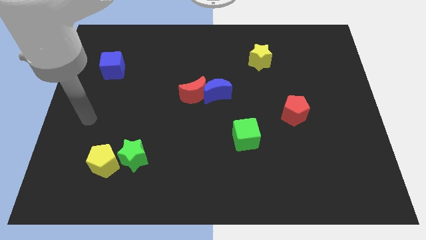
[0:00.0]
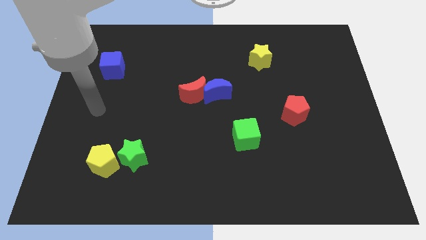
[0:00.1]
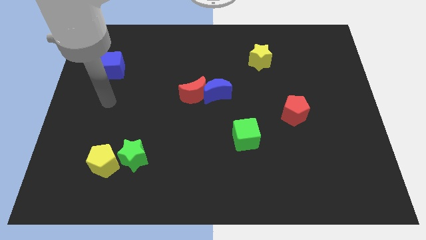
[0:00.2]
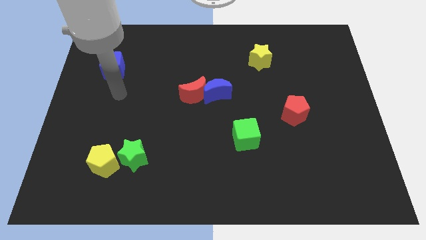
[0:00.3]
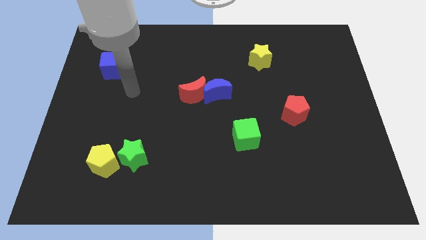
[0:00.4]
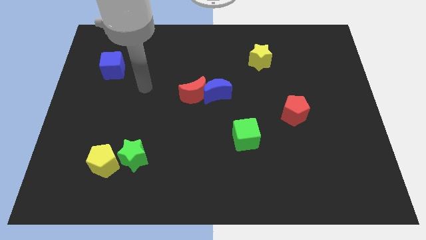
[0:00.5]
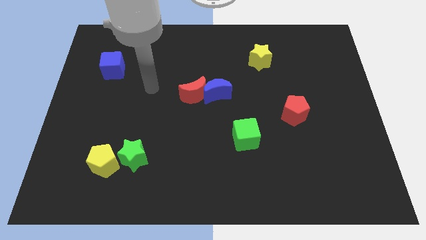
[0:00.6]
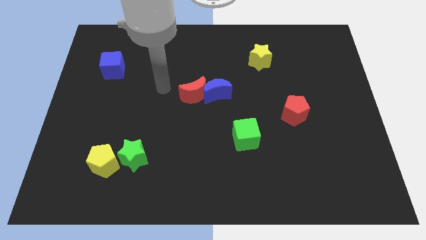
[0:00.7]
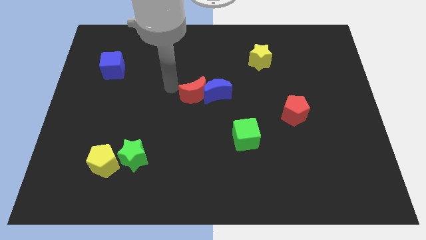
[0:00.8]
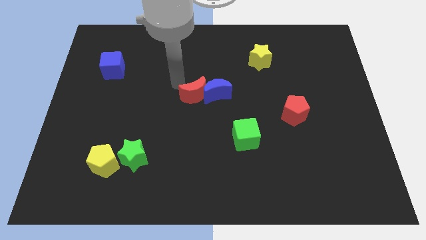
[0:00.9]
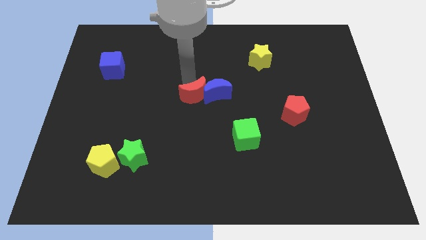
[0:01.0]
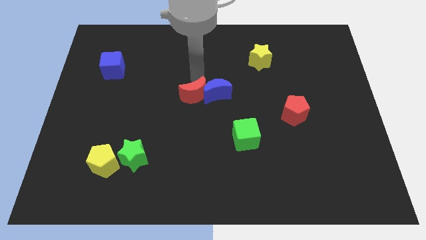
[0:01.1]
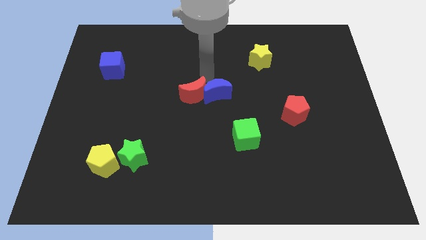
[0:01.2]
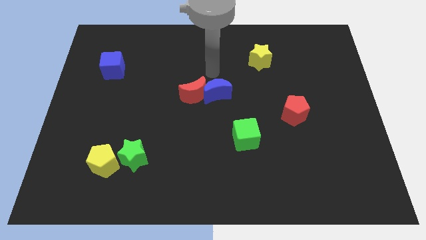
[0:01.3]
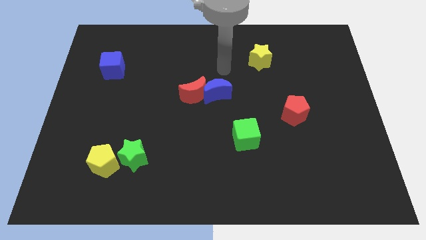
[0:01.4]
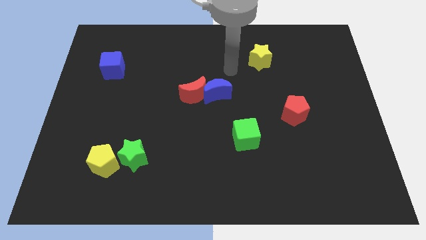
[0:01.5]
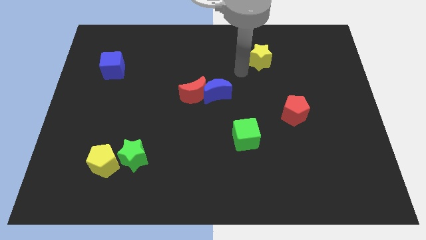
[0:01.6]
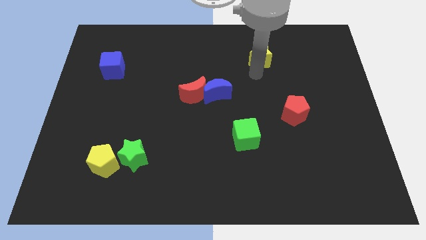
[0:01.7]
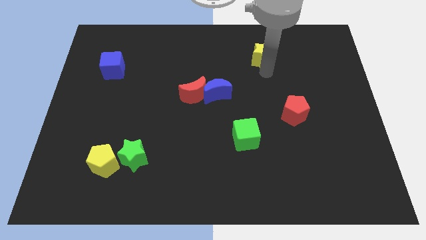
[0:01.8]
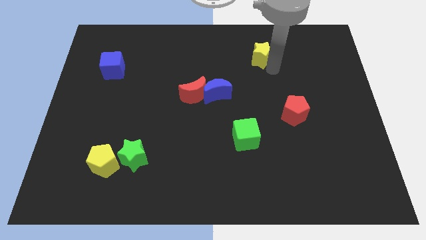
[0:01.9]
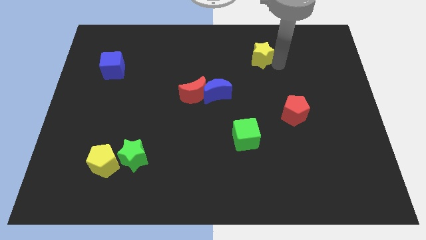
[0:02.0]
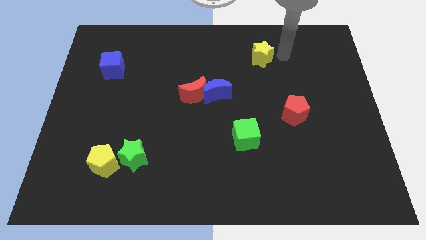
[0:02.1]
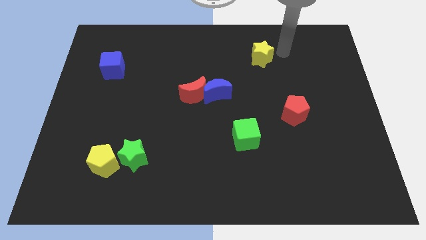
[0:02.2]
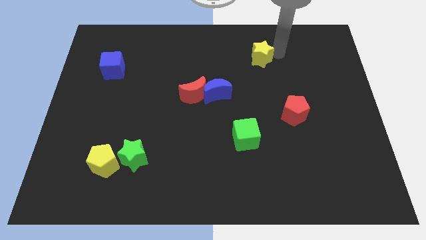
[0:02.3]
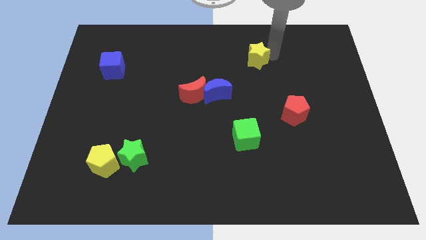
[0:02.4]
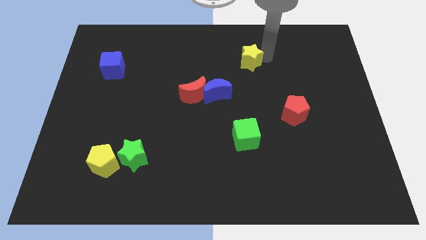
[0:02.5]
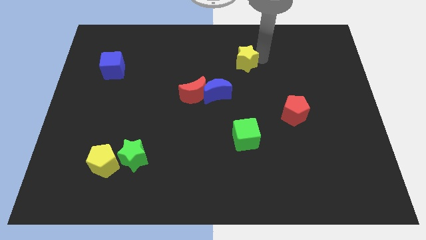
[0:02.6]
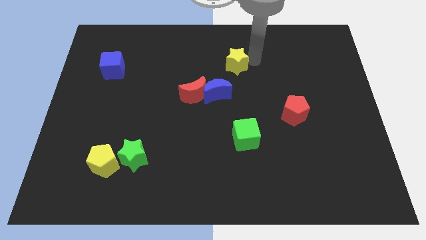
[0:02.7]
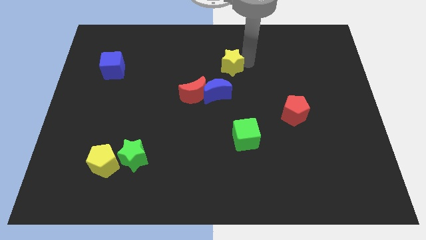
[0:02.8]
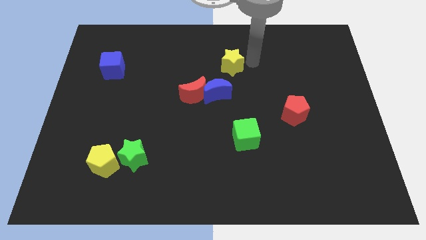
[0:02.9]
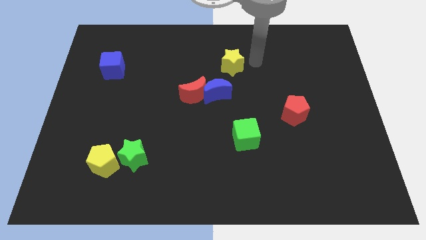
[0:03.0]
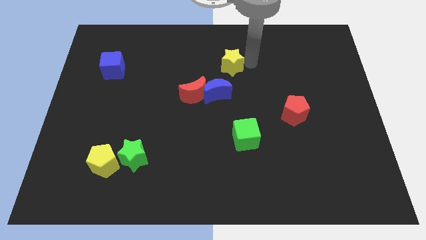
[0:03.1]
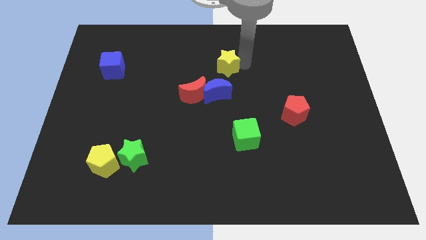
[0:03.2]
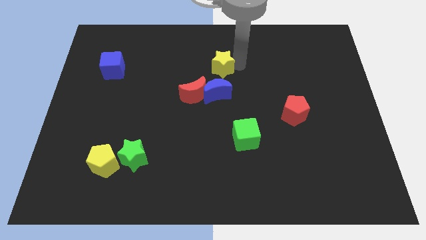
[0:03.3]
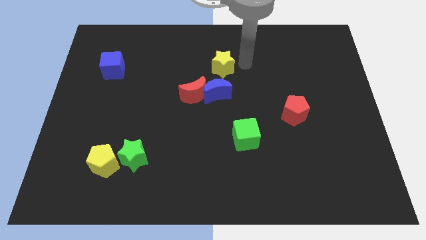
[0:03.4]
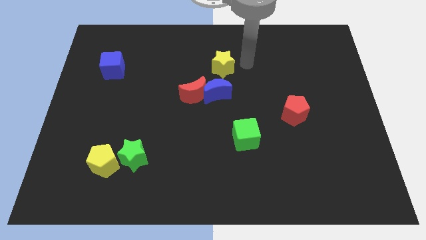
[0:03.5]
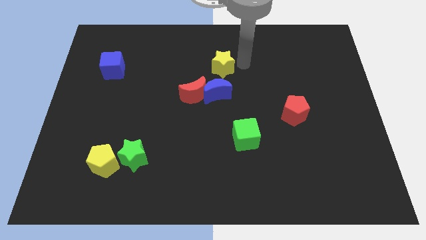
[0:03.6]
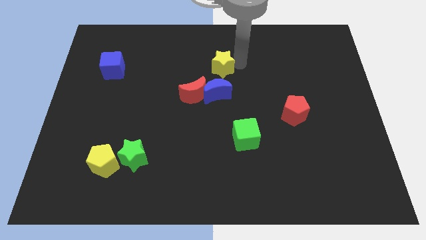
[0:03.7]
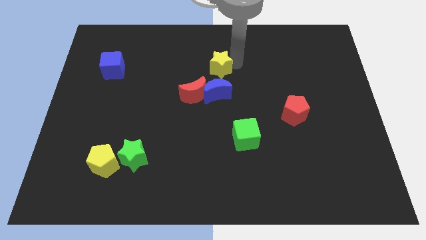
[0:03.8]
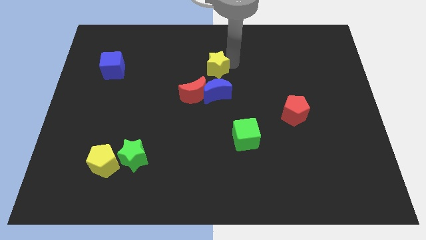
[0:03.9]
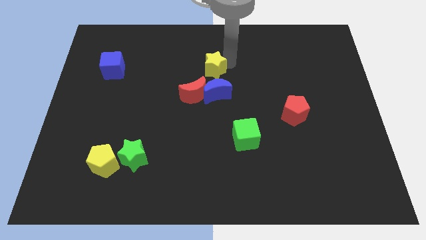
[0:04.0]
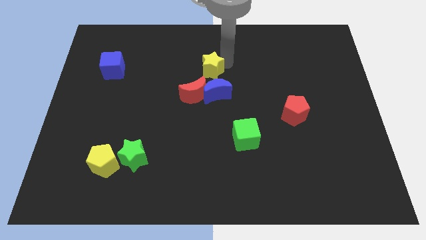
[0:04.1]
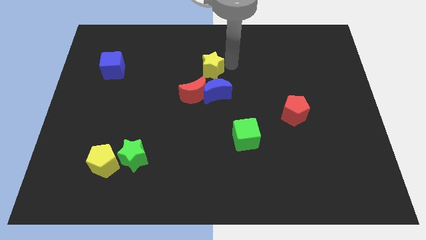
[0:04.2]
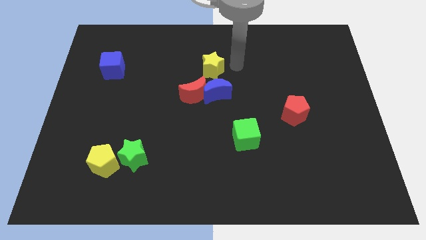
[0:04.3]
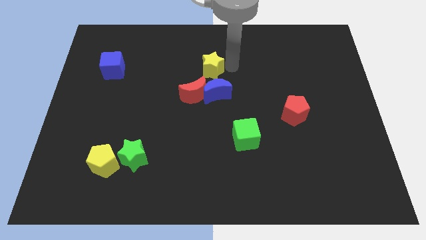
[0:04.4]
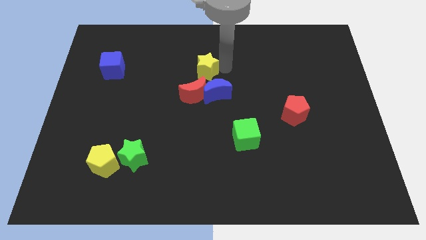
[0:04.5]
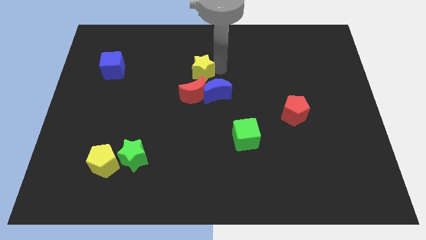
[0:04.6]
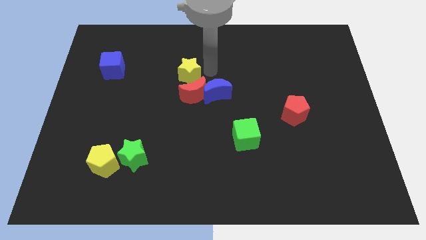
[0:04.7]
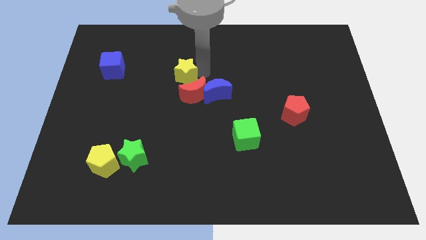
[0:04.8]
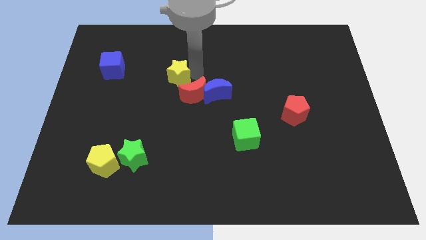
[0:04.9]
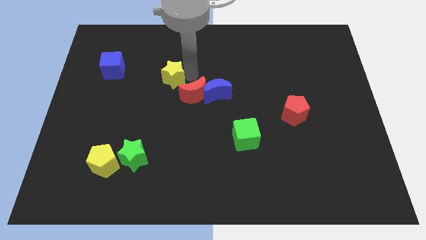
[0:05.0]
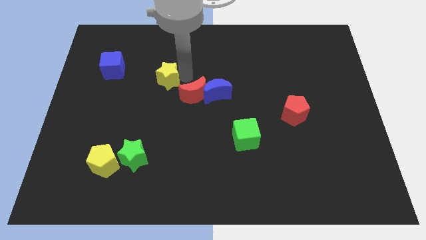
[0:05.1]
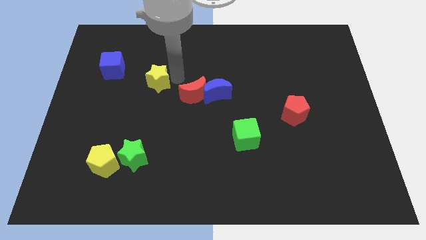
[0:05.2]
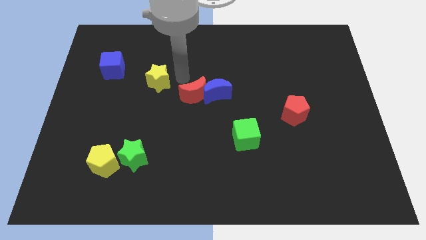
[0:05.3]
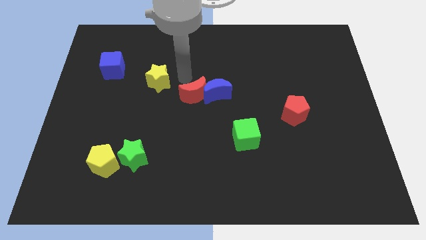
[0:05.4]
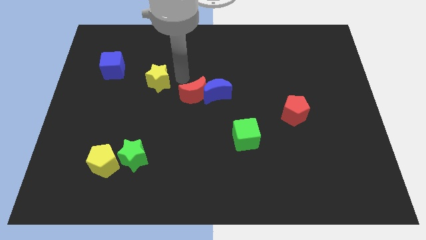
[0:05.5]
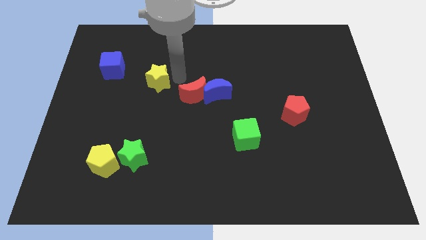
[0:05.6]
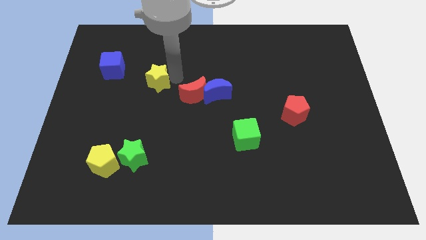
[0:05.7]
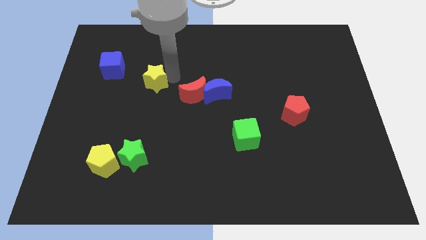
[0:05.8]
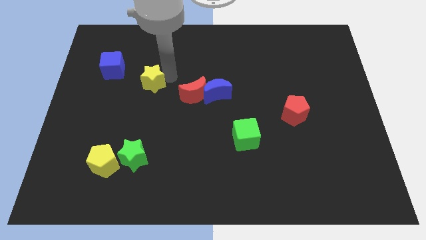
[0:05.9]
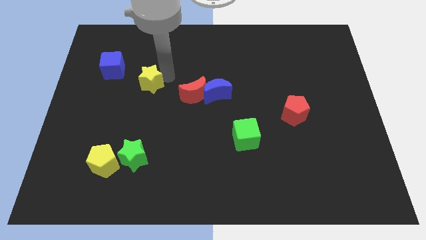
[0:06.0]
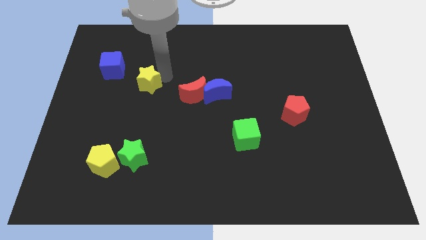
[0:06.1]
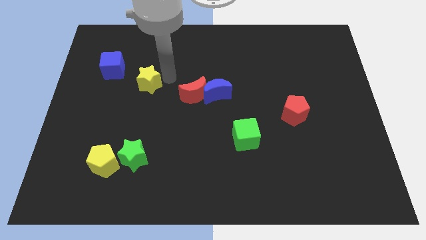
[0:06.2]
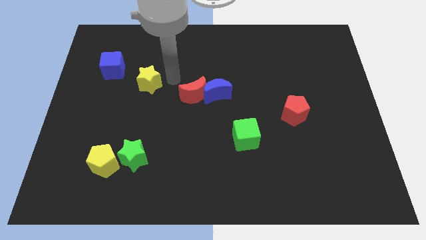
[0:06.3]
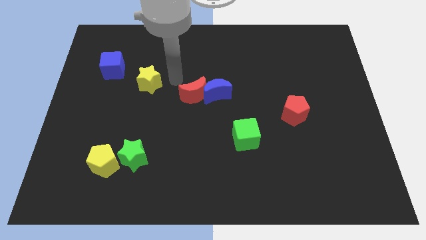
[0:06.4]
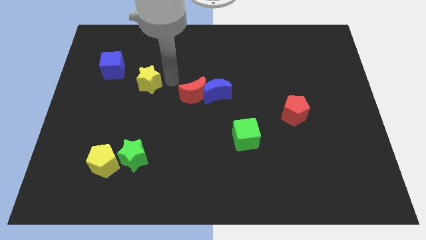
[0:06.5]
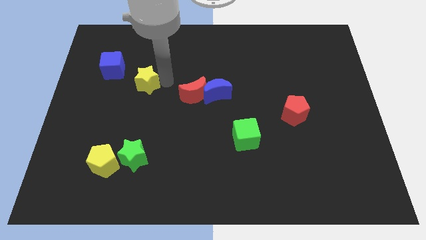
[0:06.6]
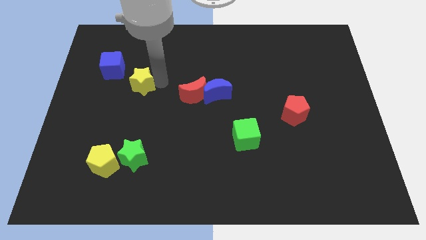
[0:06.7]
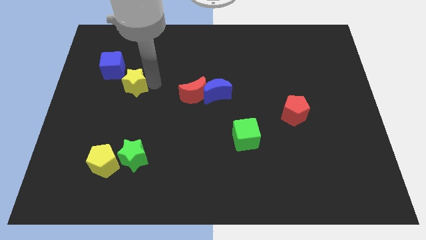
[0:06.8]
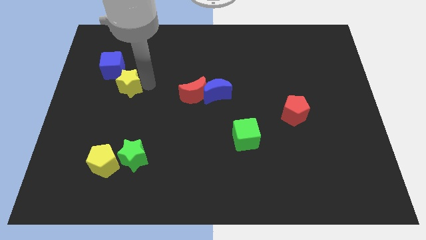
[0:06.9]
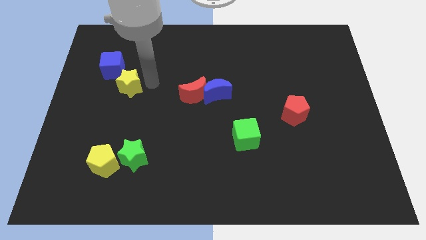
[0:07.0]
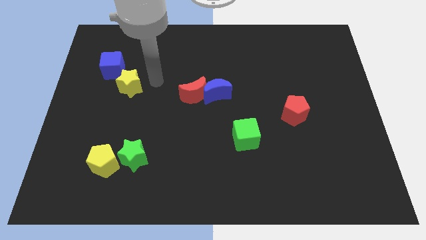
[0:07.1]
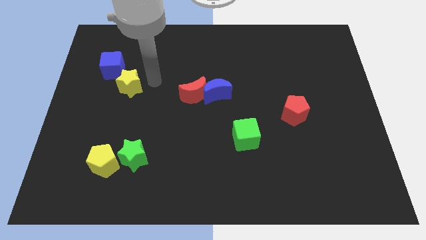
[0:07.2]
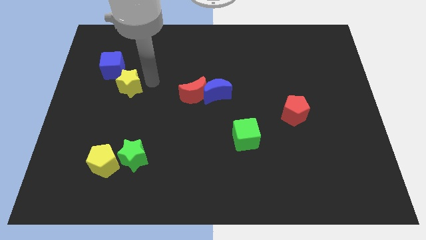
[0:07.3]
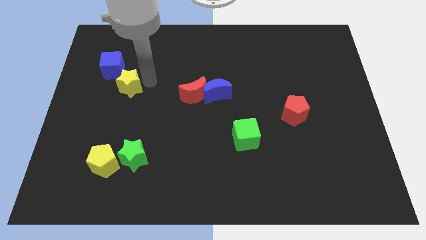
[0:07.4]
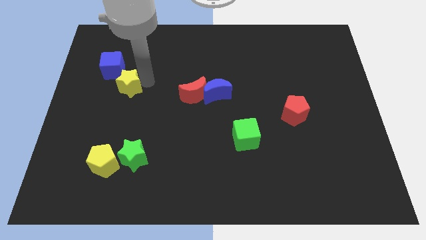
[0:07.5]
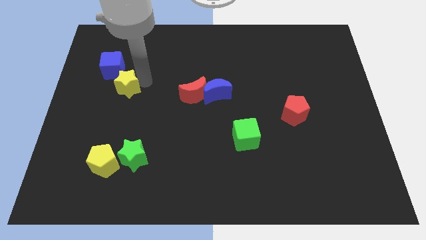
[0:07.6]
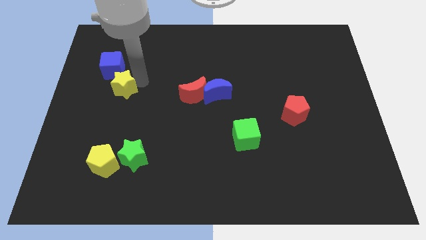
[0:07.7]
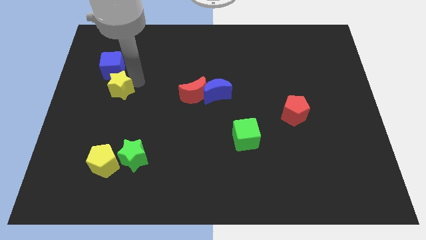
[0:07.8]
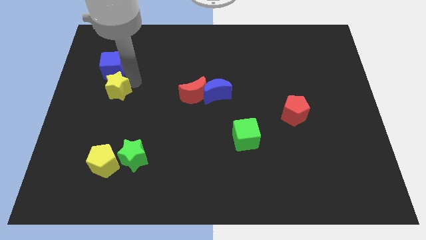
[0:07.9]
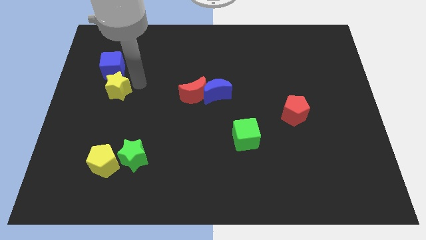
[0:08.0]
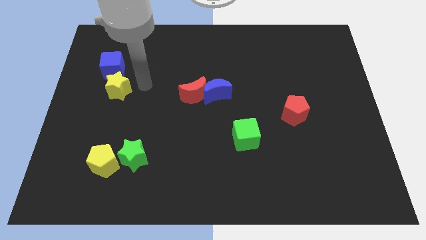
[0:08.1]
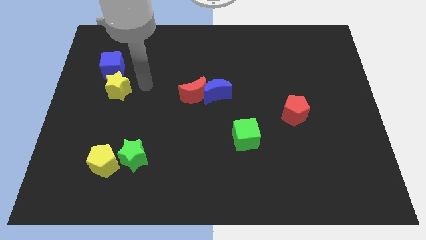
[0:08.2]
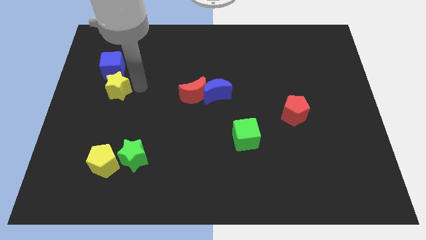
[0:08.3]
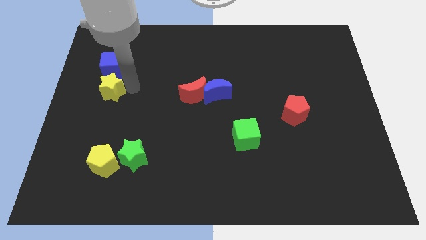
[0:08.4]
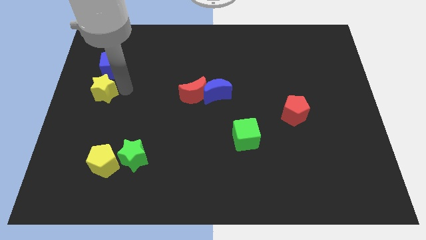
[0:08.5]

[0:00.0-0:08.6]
put the yellow star to the center left
